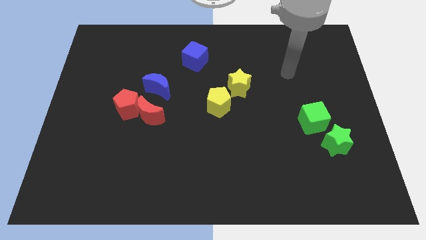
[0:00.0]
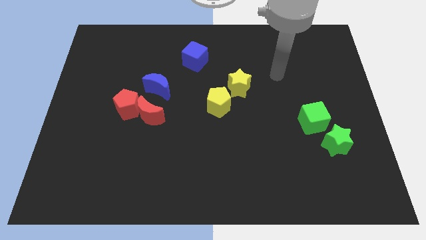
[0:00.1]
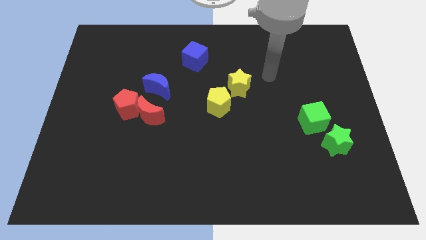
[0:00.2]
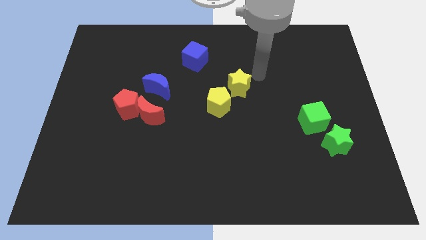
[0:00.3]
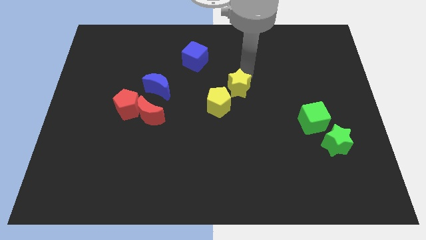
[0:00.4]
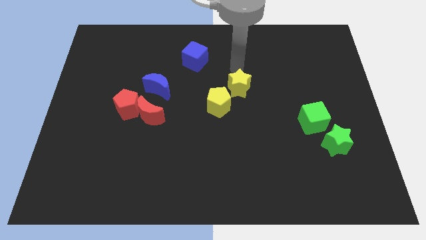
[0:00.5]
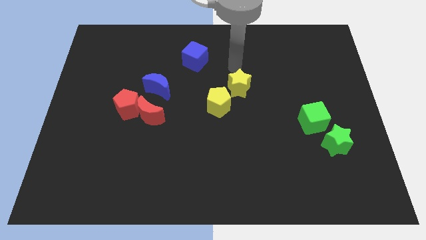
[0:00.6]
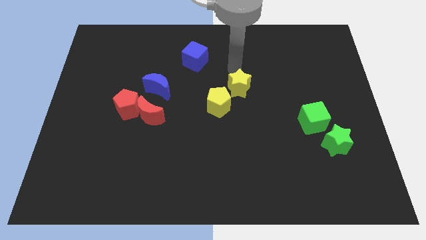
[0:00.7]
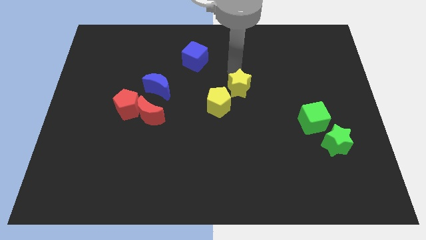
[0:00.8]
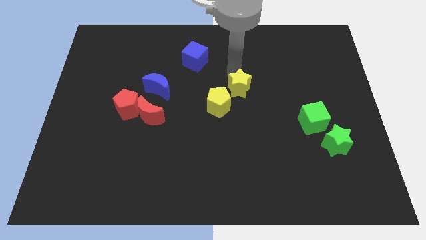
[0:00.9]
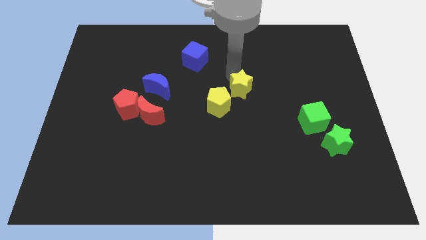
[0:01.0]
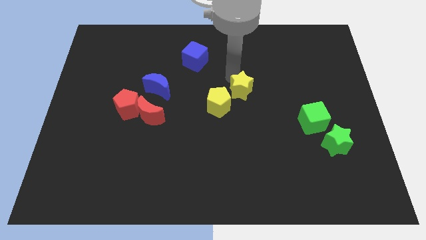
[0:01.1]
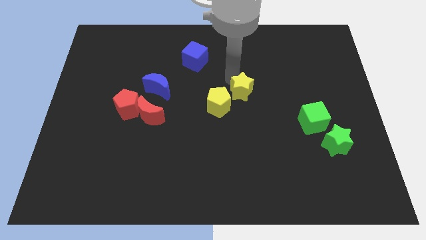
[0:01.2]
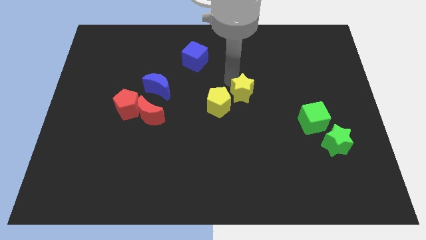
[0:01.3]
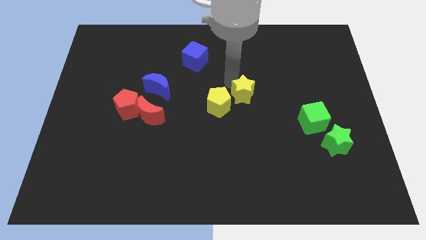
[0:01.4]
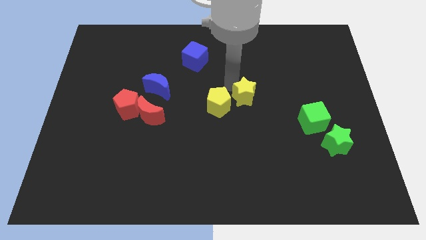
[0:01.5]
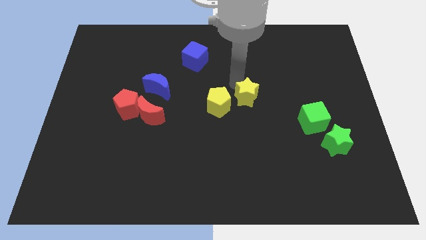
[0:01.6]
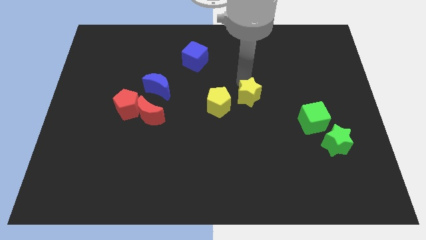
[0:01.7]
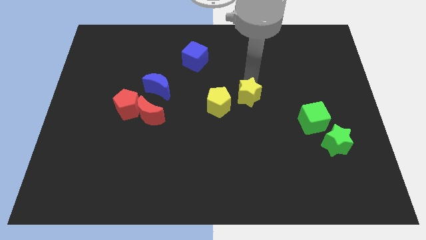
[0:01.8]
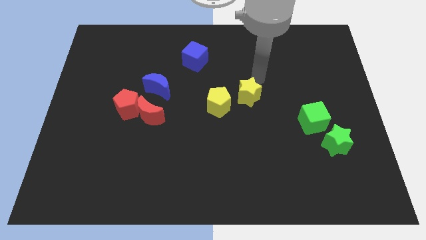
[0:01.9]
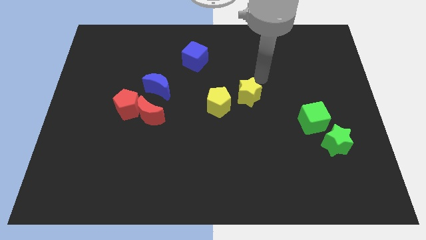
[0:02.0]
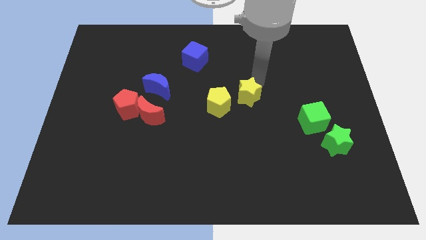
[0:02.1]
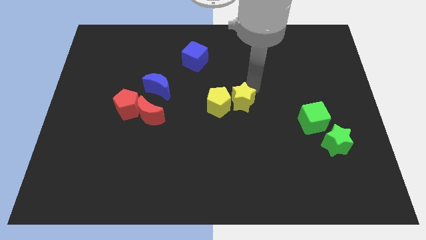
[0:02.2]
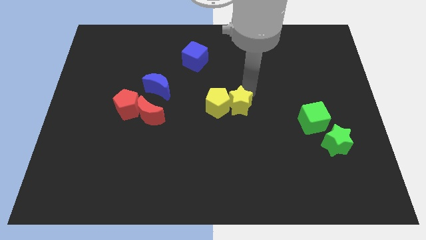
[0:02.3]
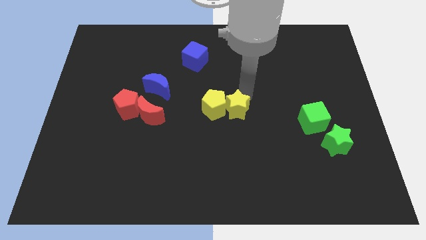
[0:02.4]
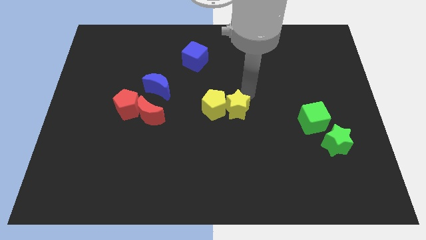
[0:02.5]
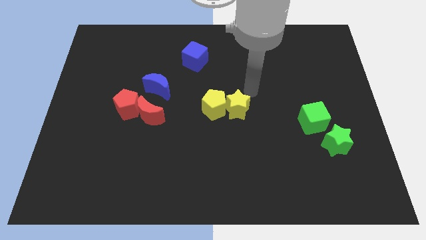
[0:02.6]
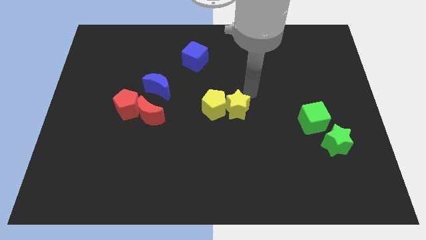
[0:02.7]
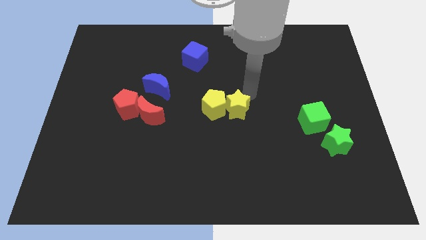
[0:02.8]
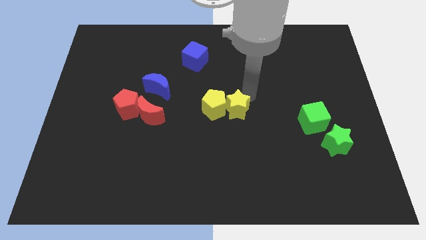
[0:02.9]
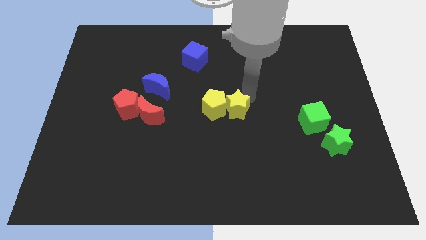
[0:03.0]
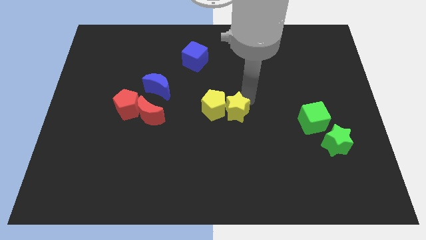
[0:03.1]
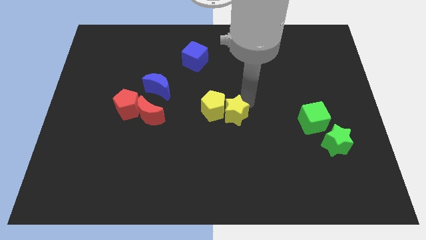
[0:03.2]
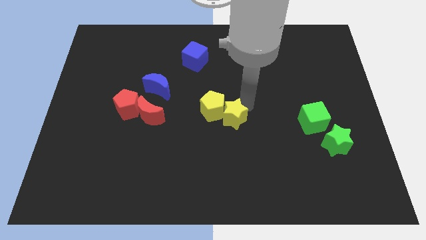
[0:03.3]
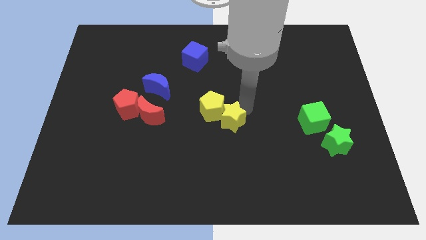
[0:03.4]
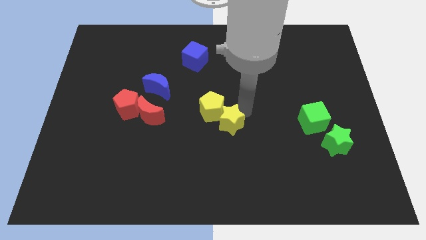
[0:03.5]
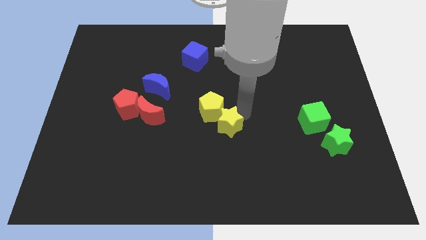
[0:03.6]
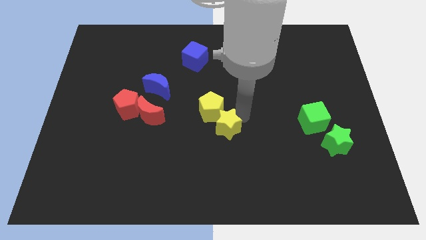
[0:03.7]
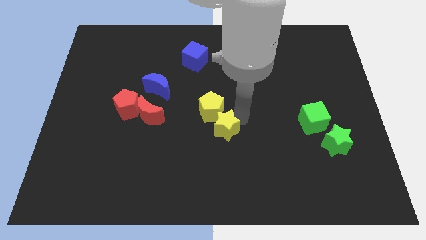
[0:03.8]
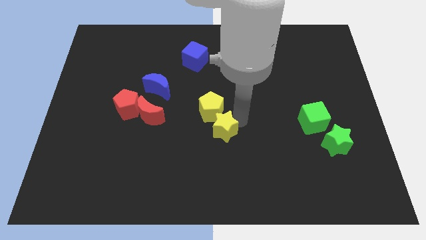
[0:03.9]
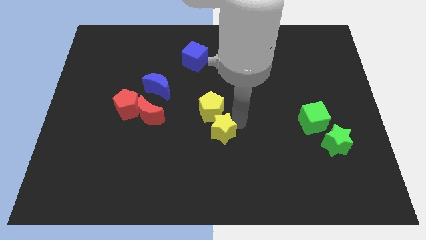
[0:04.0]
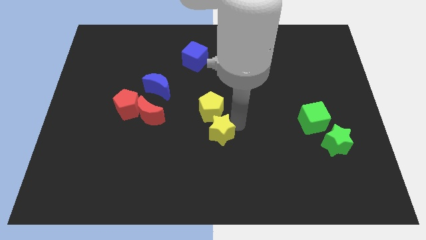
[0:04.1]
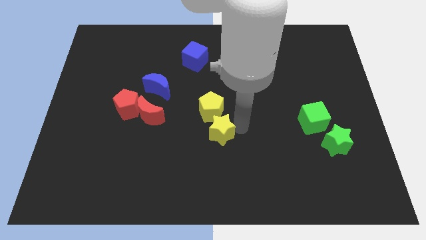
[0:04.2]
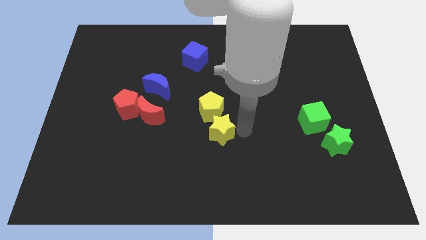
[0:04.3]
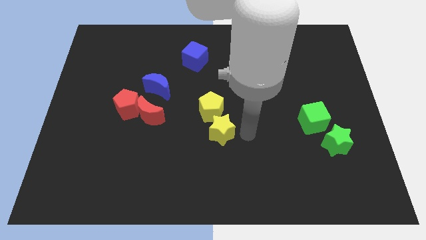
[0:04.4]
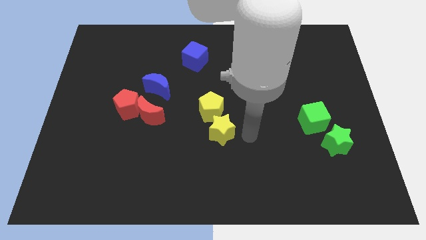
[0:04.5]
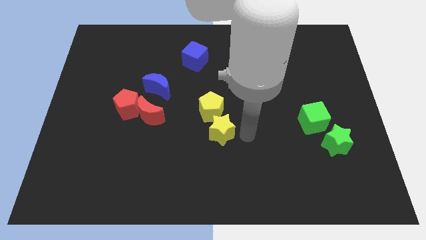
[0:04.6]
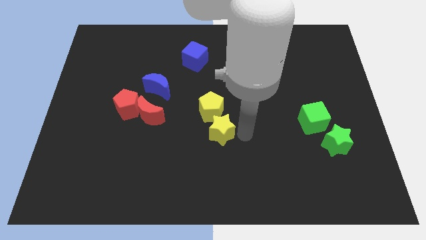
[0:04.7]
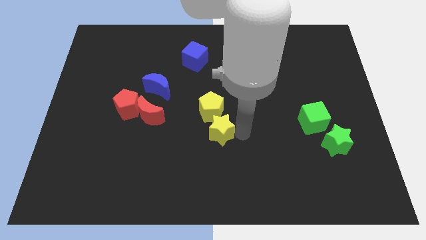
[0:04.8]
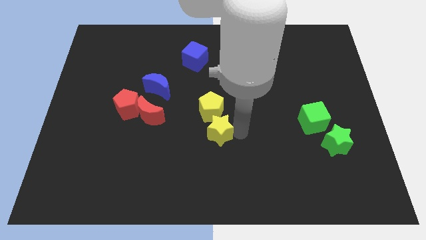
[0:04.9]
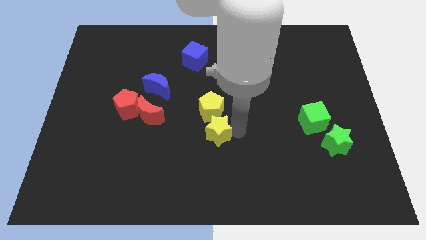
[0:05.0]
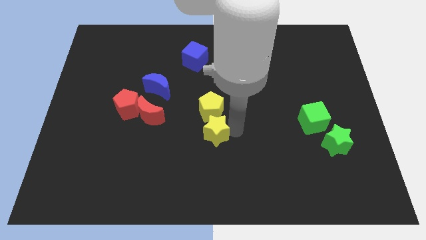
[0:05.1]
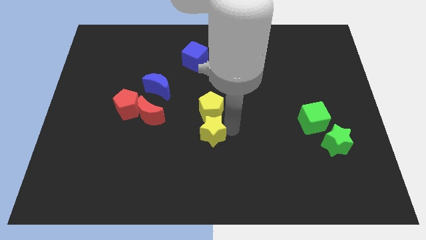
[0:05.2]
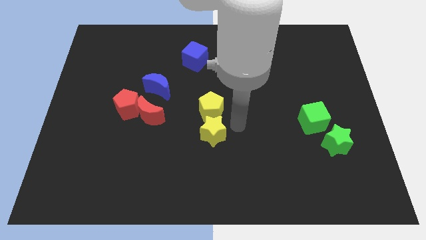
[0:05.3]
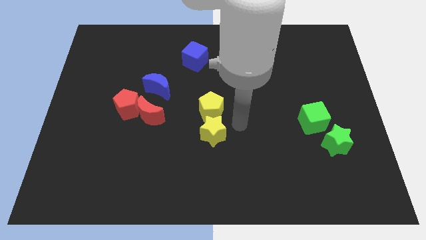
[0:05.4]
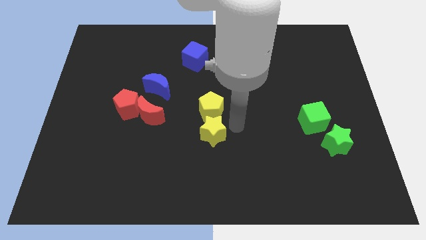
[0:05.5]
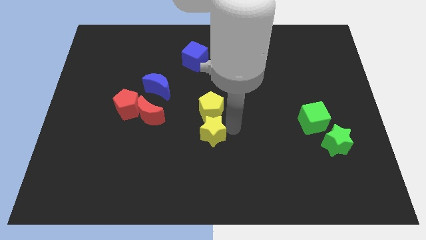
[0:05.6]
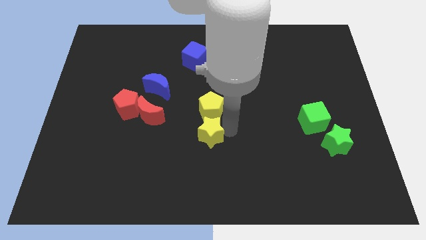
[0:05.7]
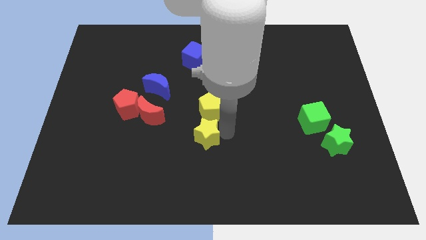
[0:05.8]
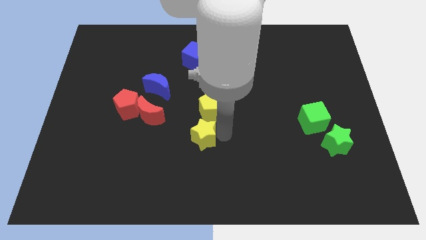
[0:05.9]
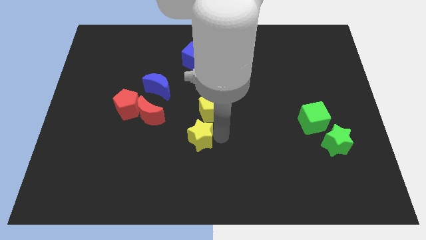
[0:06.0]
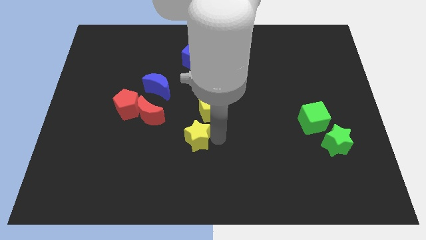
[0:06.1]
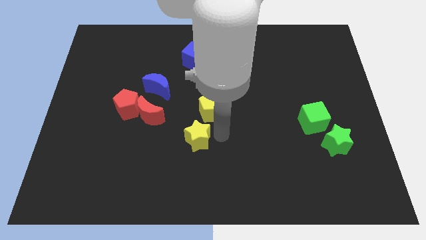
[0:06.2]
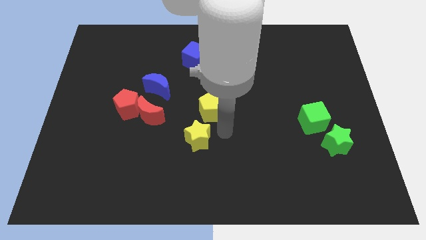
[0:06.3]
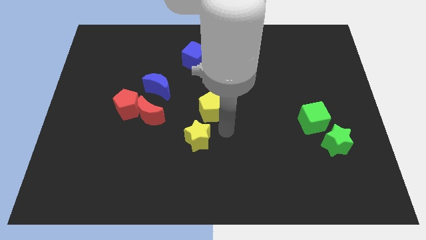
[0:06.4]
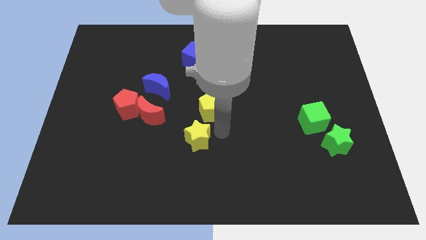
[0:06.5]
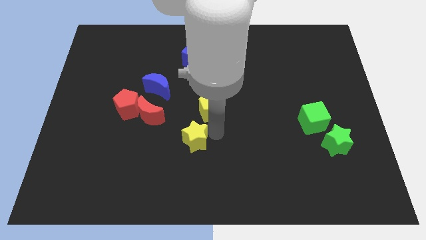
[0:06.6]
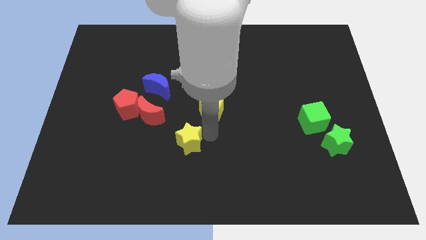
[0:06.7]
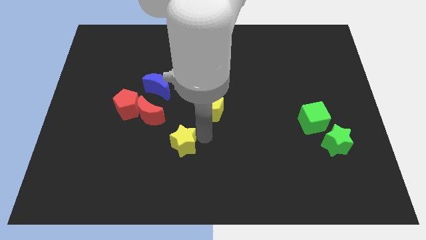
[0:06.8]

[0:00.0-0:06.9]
slide the yellow star down and left diagonally

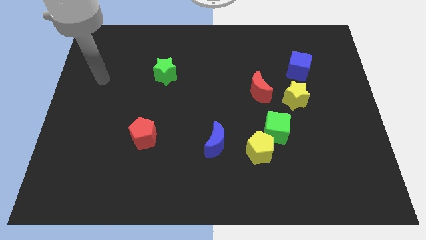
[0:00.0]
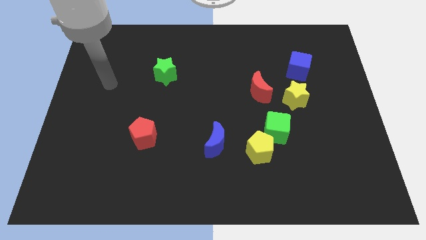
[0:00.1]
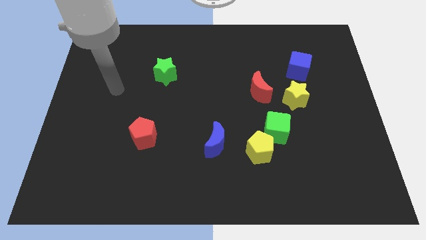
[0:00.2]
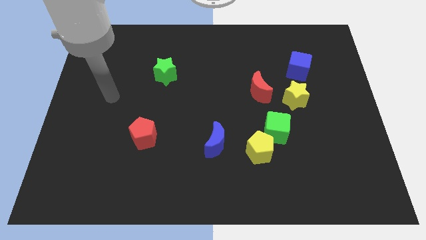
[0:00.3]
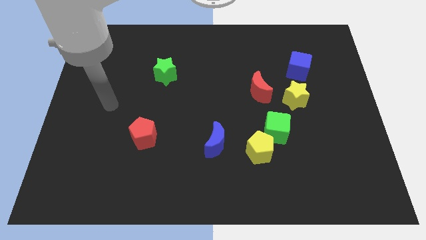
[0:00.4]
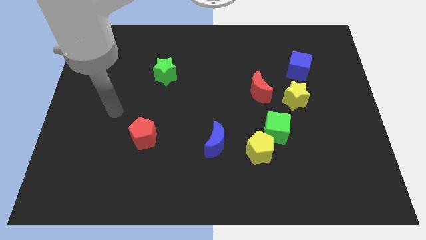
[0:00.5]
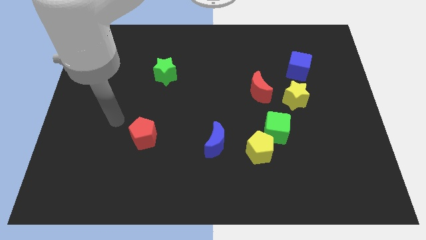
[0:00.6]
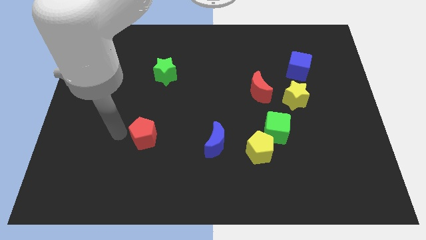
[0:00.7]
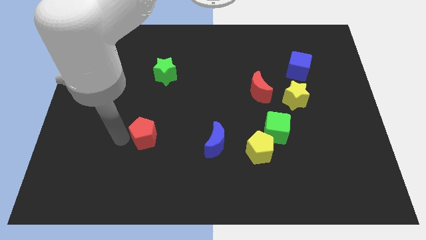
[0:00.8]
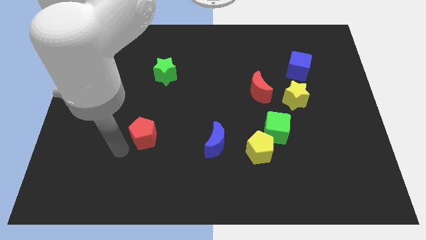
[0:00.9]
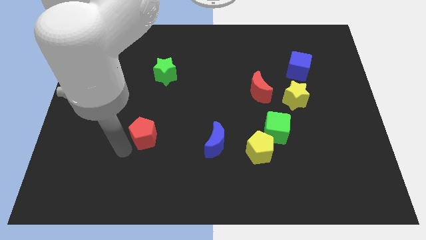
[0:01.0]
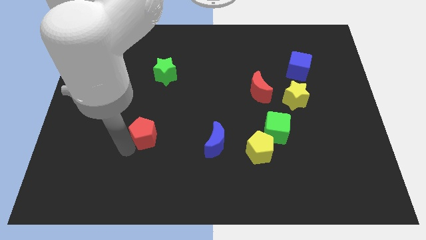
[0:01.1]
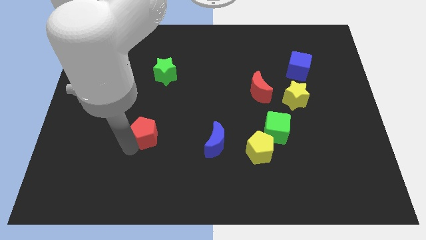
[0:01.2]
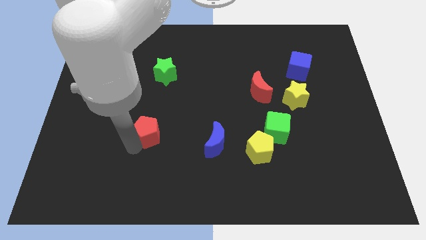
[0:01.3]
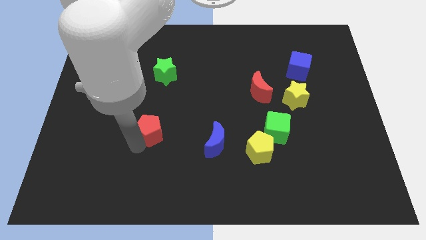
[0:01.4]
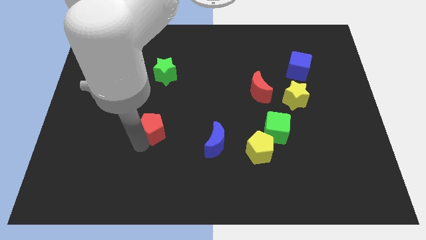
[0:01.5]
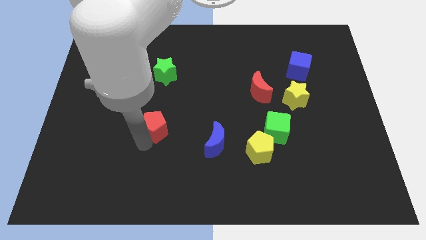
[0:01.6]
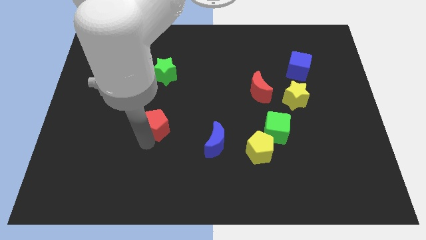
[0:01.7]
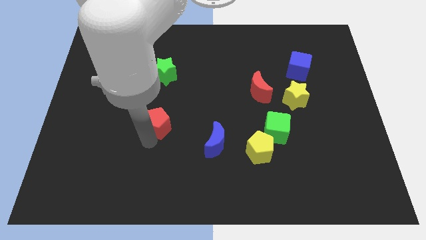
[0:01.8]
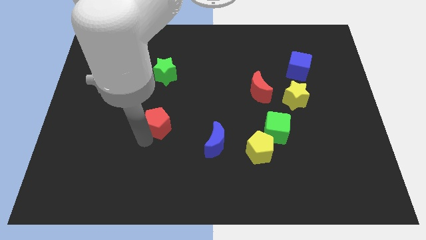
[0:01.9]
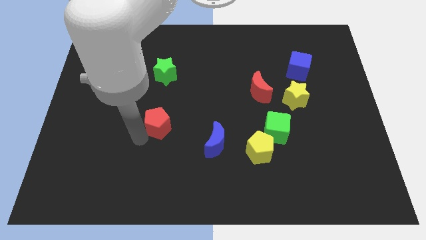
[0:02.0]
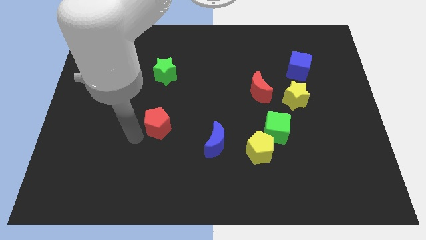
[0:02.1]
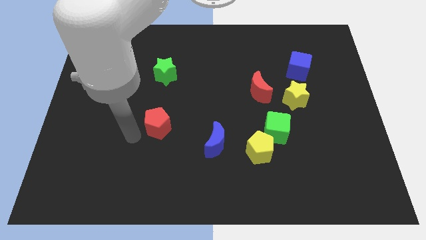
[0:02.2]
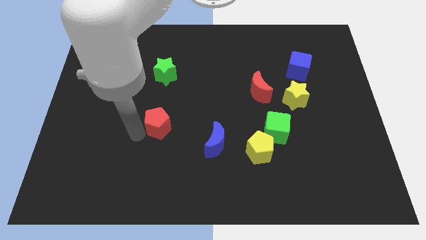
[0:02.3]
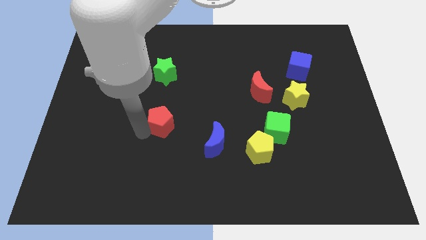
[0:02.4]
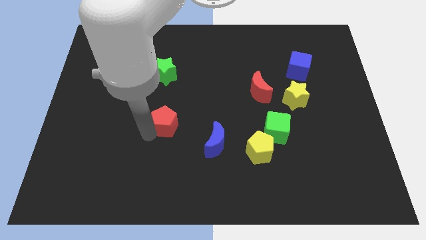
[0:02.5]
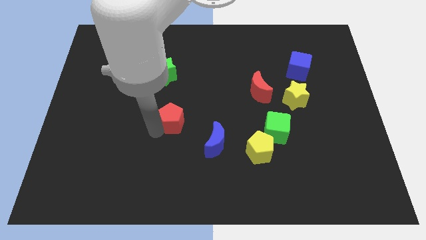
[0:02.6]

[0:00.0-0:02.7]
slide the red pentagon a little diagonally up and to the right
